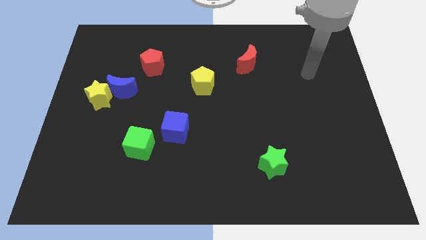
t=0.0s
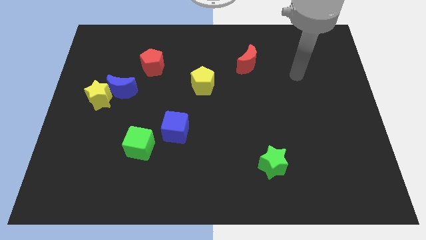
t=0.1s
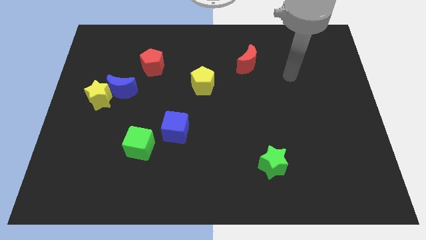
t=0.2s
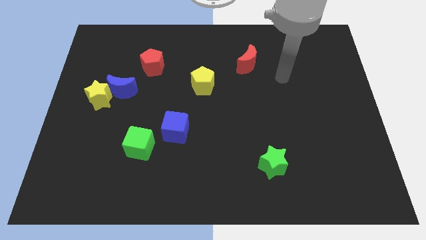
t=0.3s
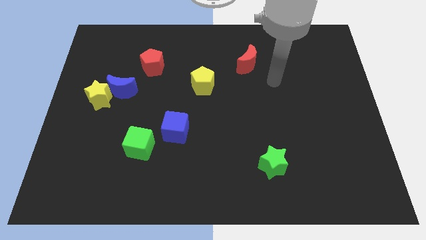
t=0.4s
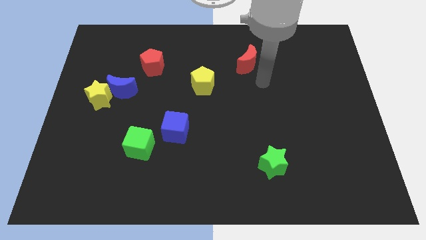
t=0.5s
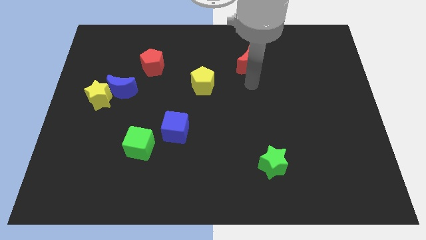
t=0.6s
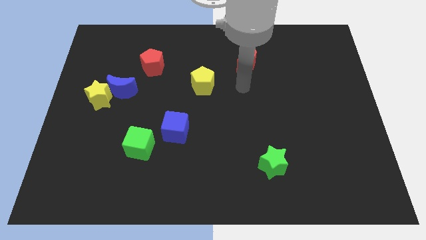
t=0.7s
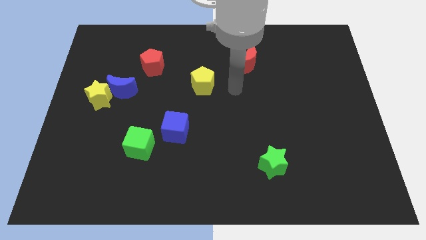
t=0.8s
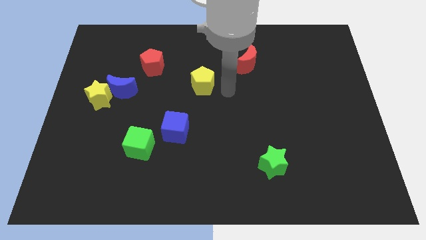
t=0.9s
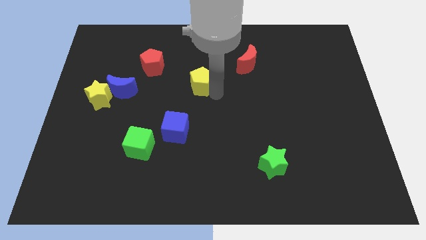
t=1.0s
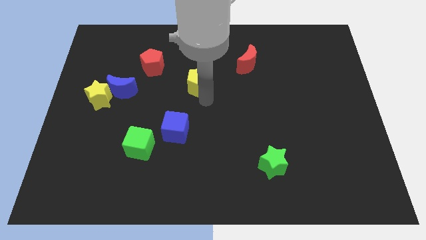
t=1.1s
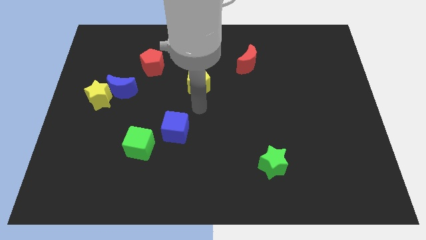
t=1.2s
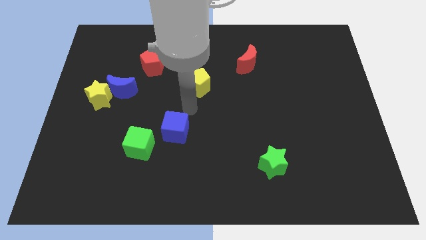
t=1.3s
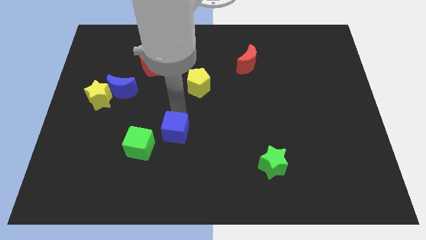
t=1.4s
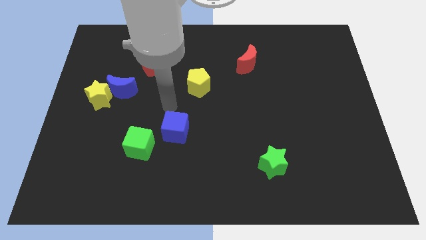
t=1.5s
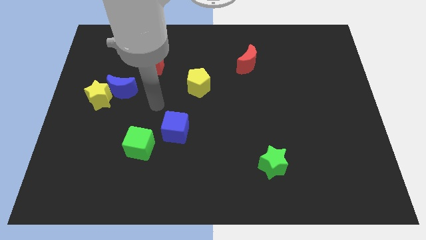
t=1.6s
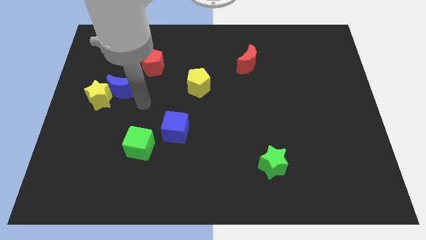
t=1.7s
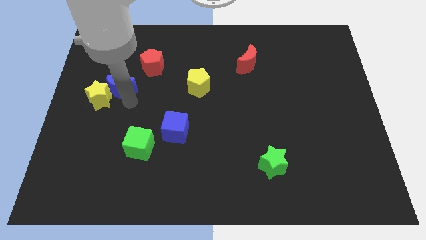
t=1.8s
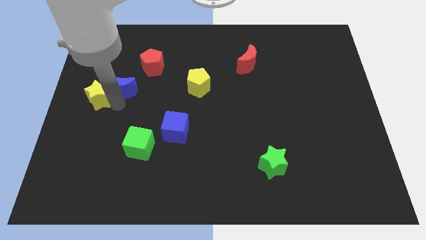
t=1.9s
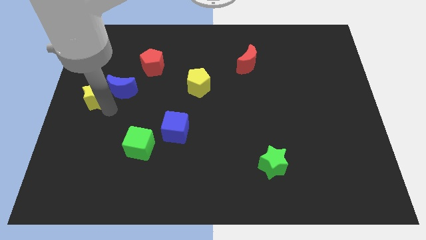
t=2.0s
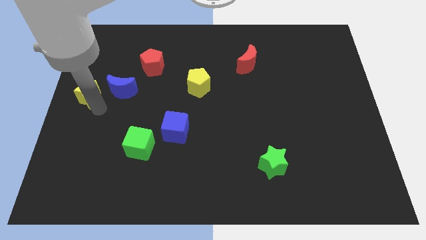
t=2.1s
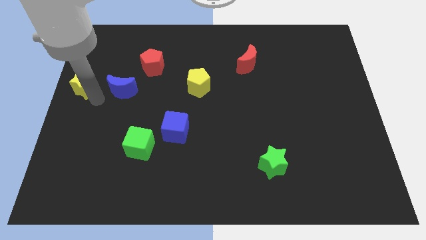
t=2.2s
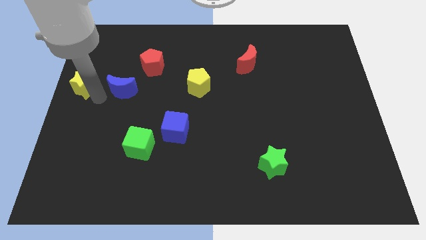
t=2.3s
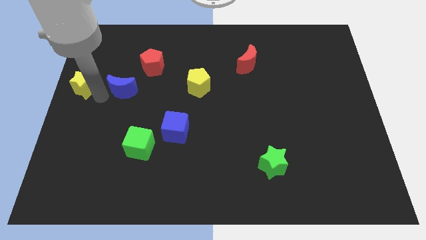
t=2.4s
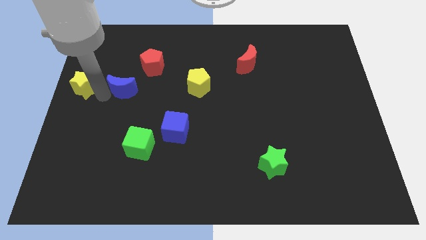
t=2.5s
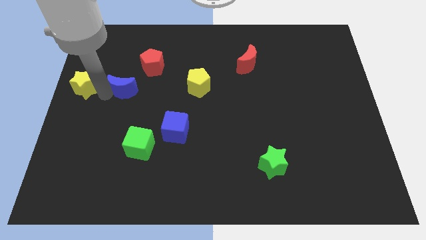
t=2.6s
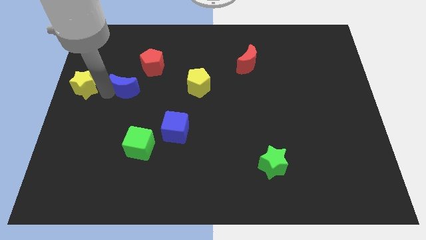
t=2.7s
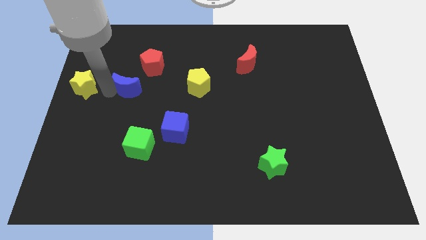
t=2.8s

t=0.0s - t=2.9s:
pull the blue moon apart from the yellow star

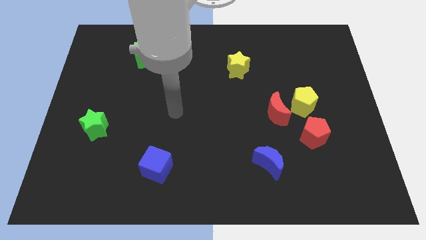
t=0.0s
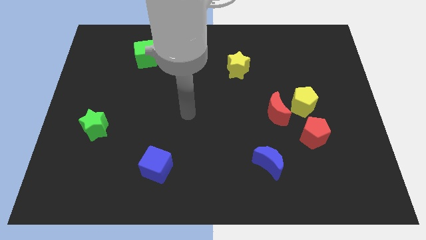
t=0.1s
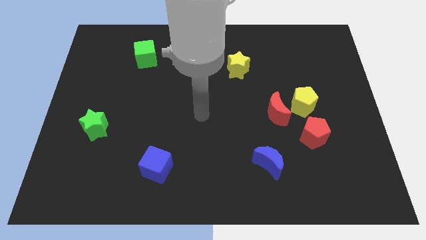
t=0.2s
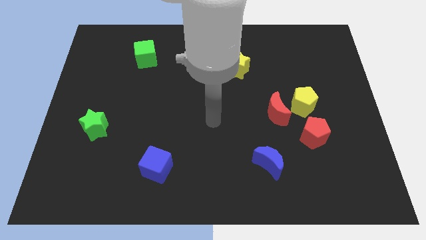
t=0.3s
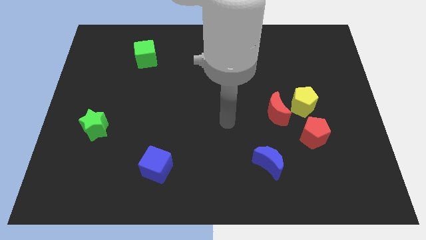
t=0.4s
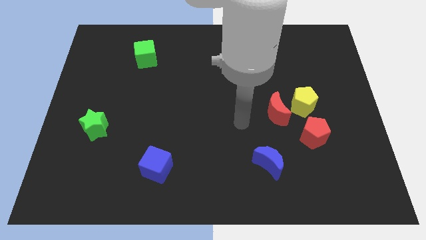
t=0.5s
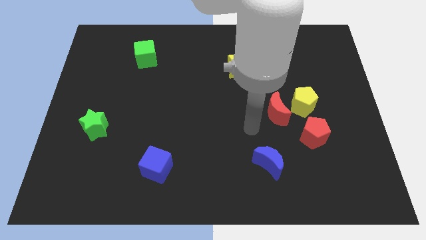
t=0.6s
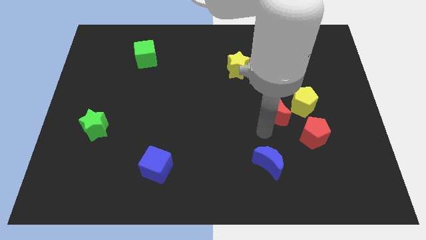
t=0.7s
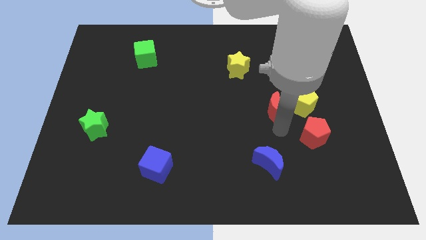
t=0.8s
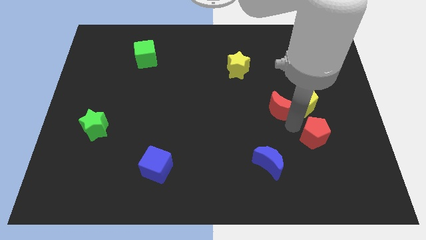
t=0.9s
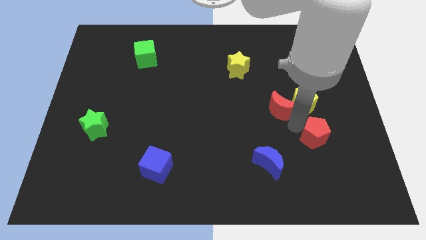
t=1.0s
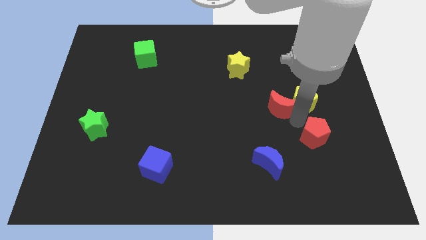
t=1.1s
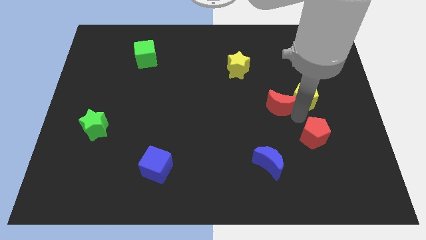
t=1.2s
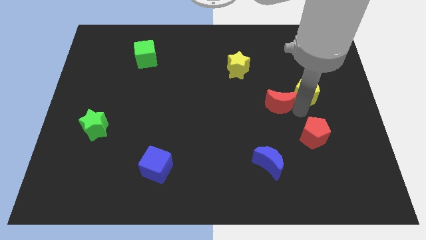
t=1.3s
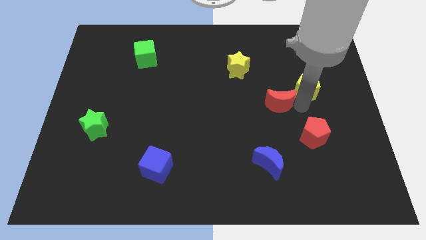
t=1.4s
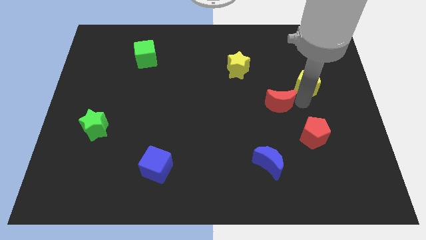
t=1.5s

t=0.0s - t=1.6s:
pull the yellow pentagon apart from the red moon and red pentagon

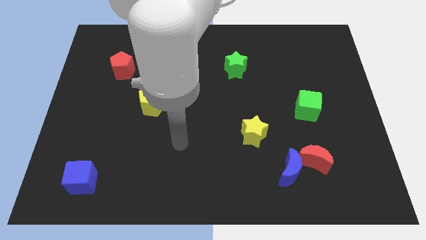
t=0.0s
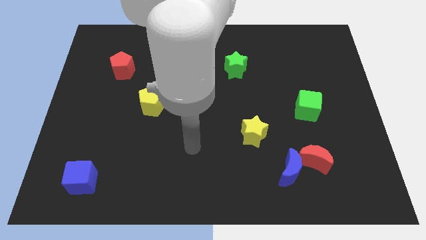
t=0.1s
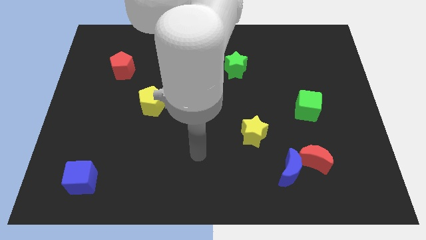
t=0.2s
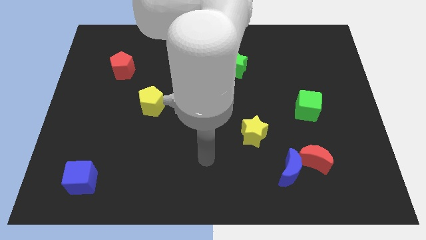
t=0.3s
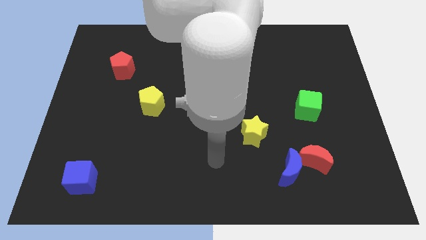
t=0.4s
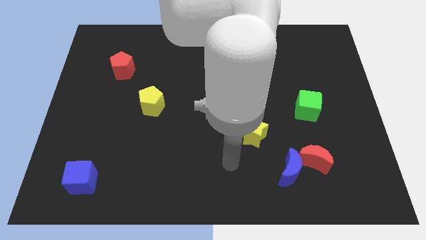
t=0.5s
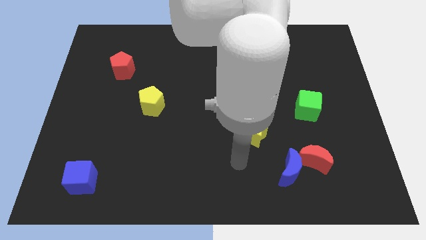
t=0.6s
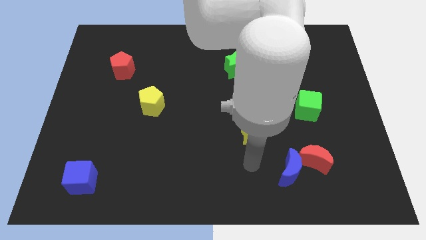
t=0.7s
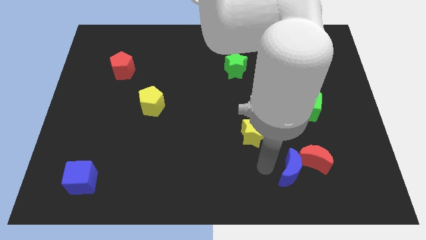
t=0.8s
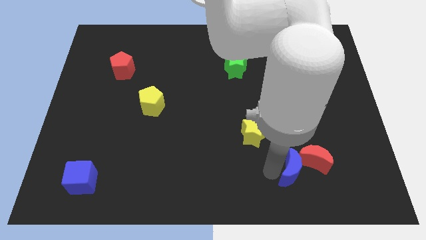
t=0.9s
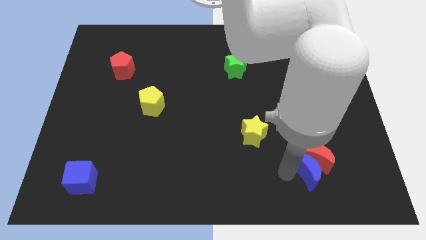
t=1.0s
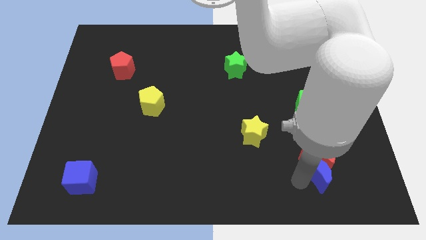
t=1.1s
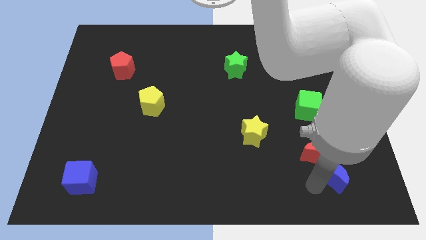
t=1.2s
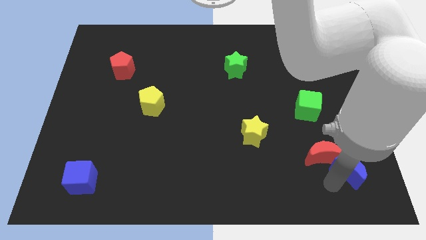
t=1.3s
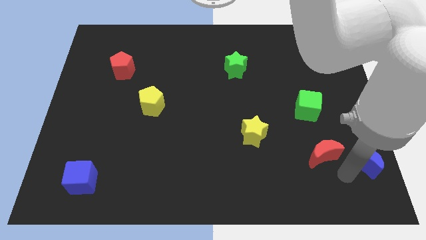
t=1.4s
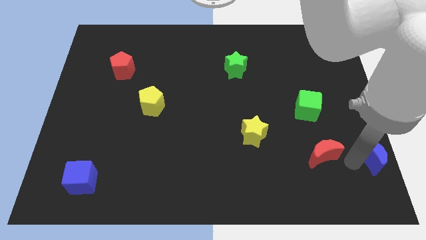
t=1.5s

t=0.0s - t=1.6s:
separate the red moon from the blue moon

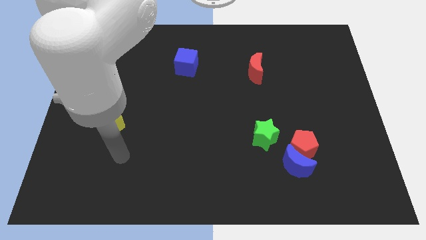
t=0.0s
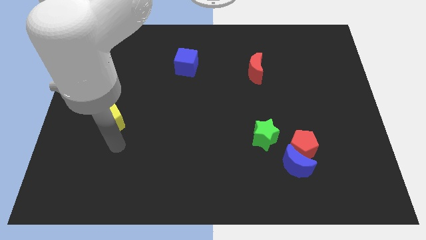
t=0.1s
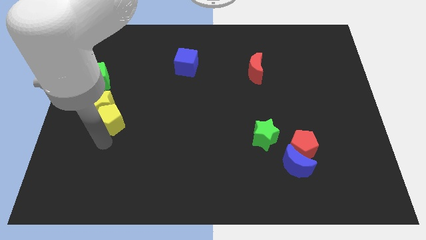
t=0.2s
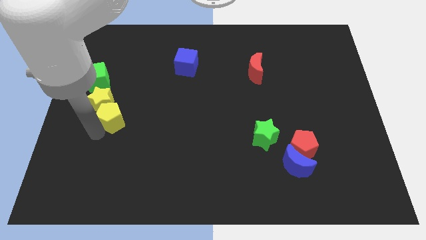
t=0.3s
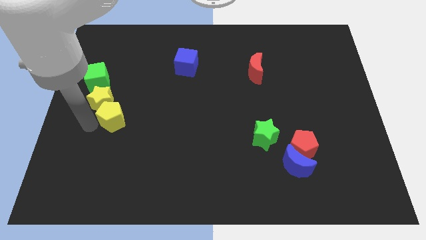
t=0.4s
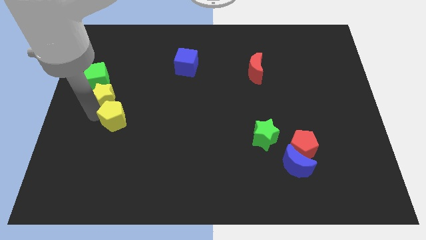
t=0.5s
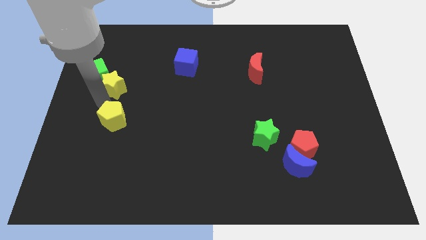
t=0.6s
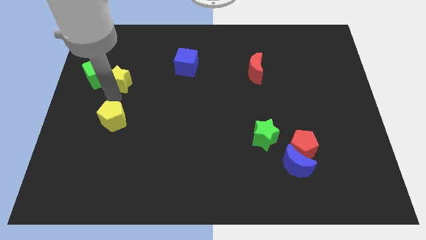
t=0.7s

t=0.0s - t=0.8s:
separate the yellow pentagon from the yellow star

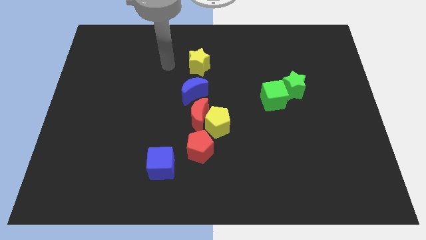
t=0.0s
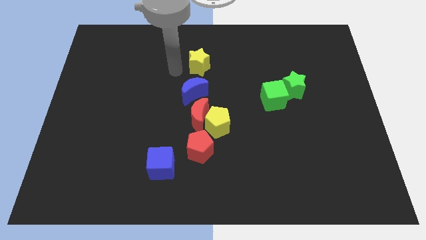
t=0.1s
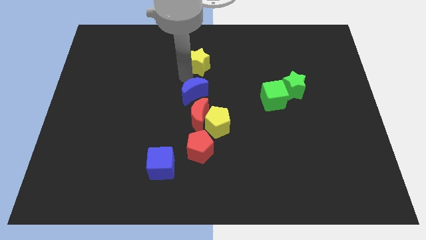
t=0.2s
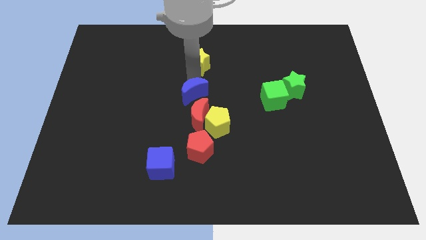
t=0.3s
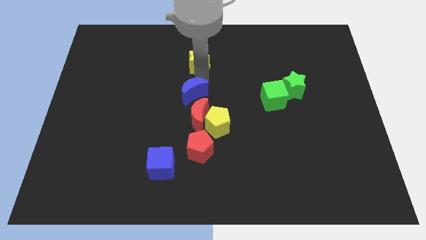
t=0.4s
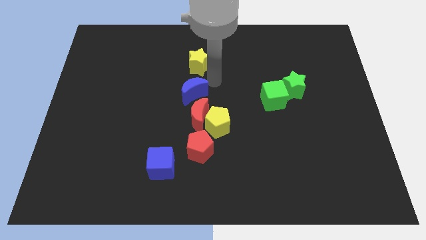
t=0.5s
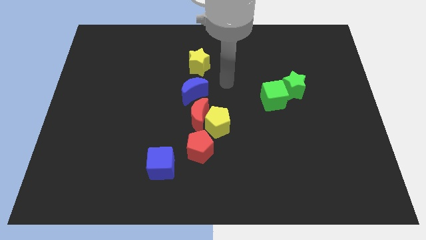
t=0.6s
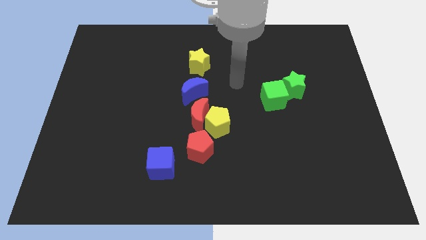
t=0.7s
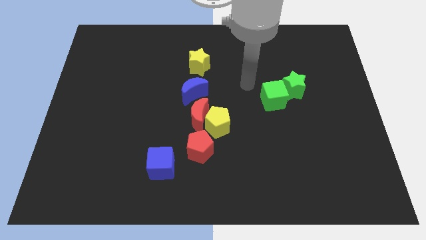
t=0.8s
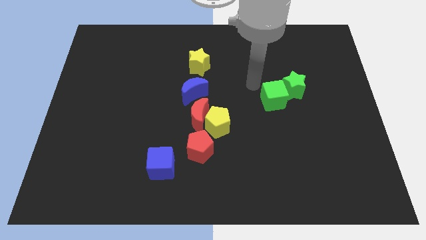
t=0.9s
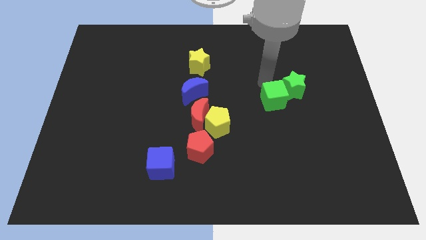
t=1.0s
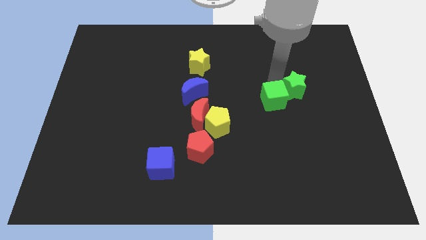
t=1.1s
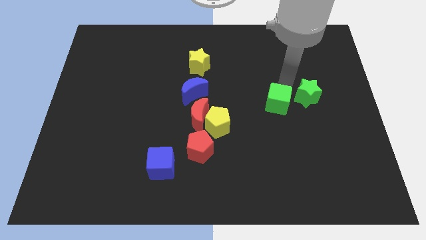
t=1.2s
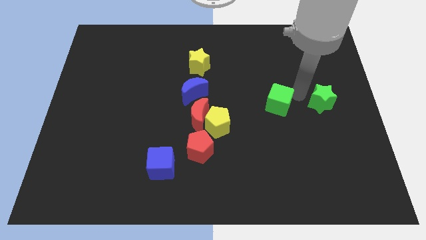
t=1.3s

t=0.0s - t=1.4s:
move the green cube away from the green star

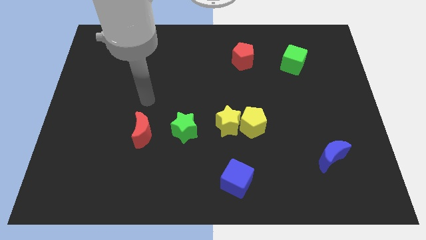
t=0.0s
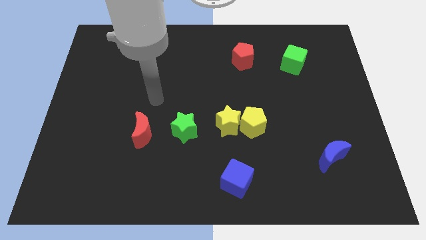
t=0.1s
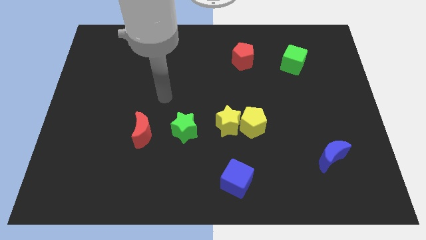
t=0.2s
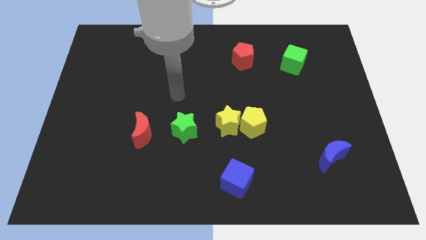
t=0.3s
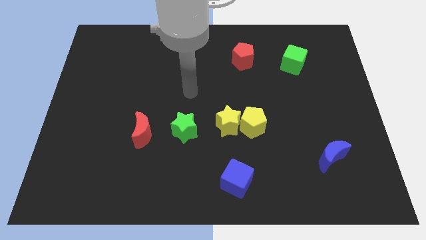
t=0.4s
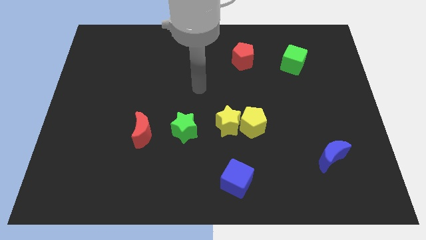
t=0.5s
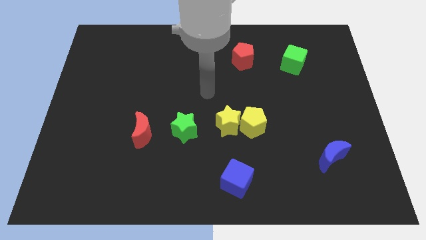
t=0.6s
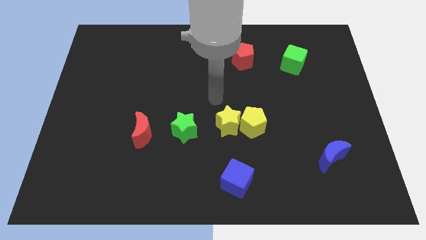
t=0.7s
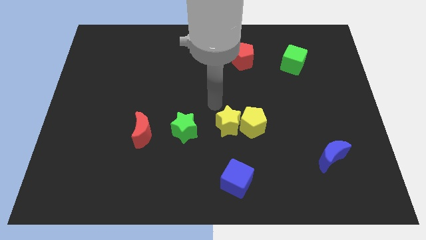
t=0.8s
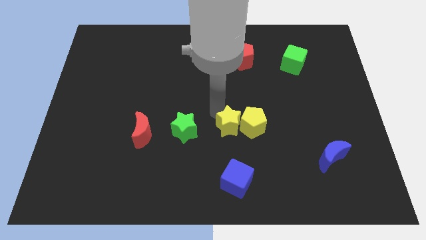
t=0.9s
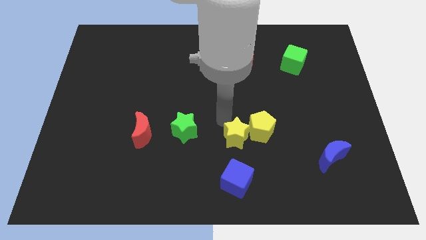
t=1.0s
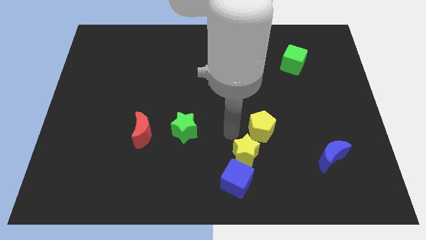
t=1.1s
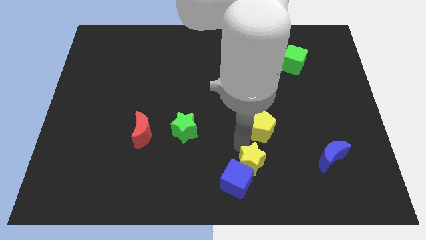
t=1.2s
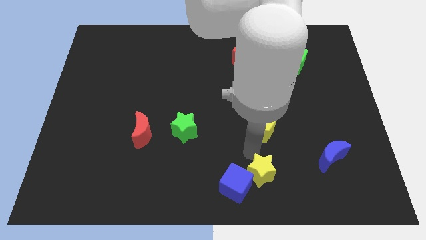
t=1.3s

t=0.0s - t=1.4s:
pull the yellow pentagon apart from the yellow star
